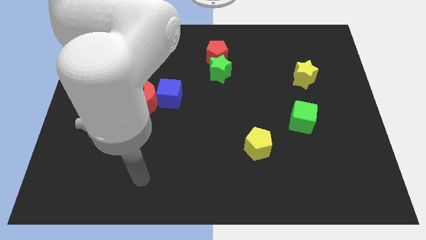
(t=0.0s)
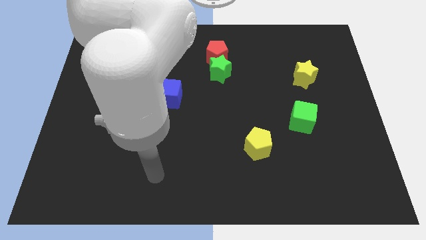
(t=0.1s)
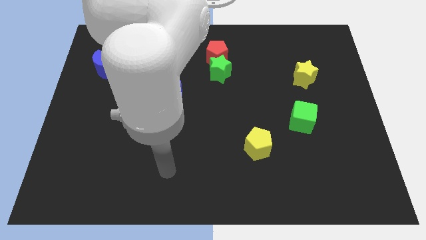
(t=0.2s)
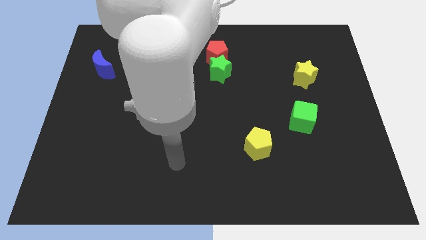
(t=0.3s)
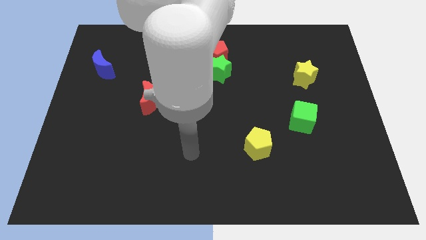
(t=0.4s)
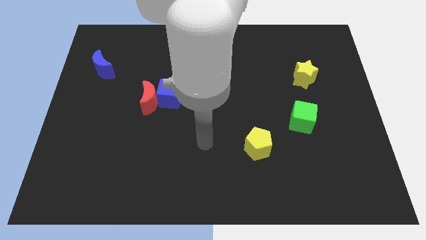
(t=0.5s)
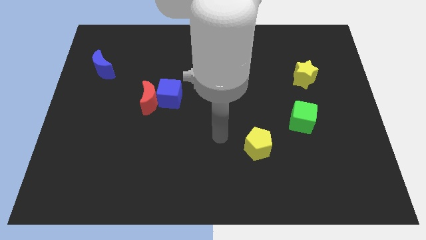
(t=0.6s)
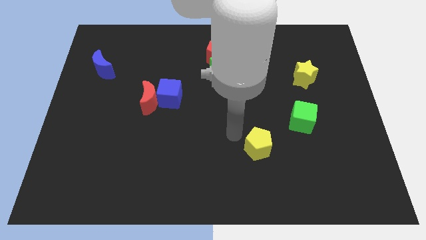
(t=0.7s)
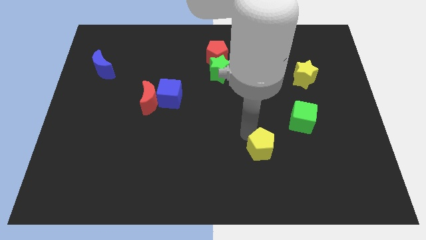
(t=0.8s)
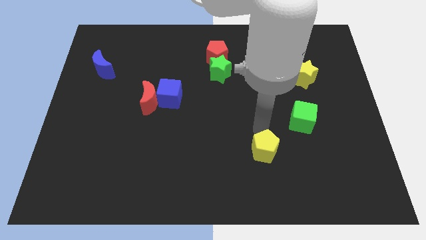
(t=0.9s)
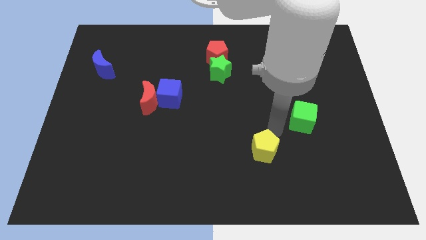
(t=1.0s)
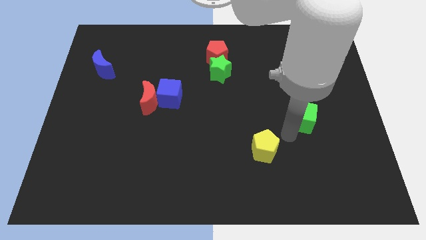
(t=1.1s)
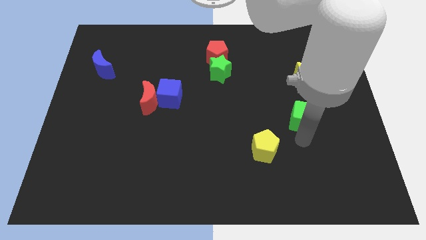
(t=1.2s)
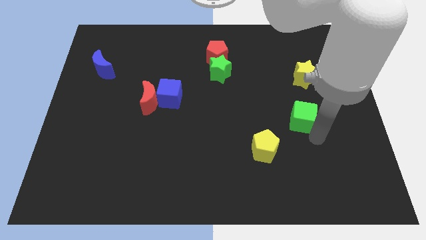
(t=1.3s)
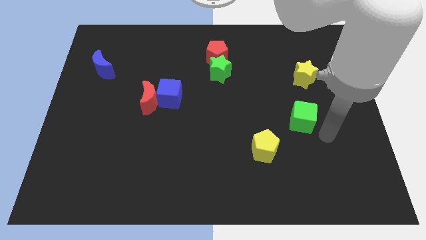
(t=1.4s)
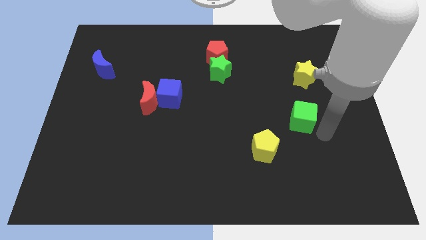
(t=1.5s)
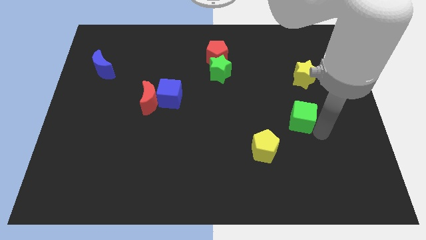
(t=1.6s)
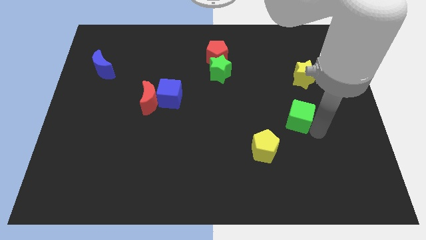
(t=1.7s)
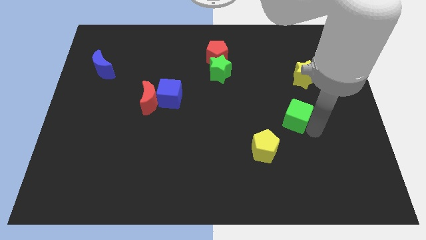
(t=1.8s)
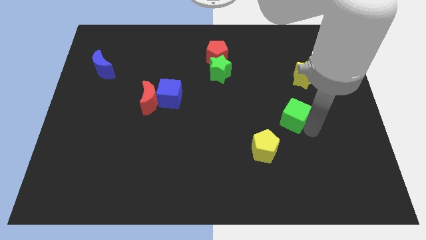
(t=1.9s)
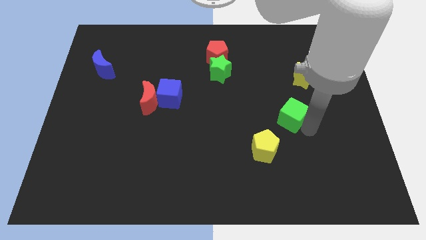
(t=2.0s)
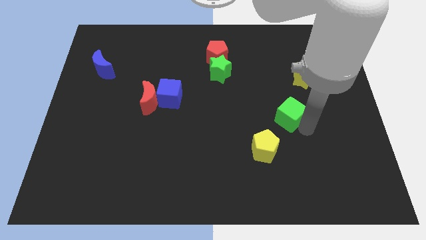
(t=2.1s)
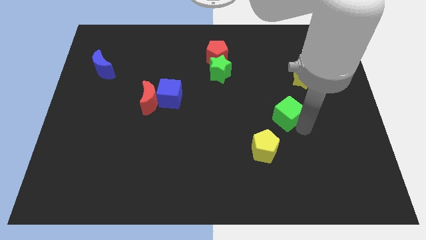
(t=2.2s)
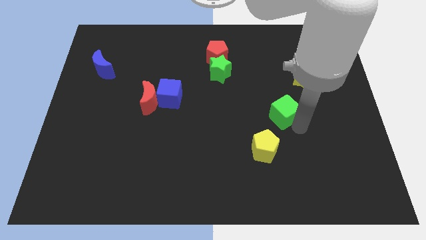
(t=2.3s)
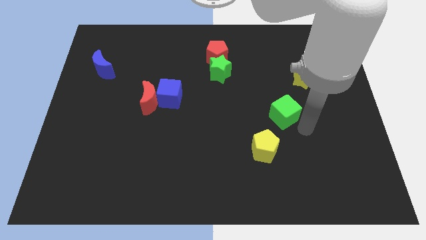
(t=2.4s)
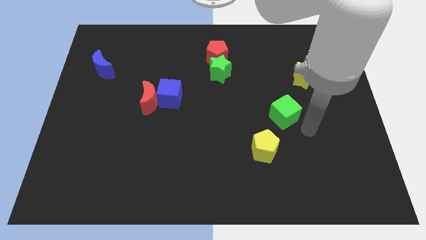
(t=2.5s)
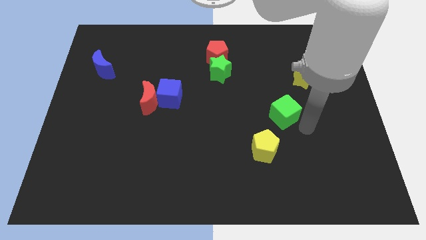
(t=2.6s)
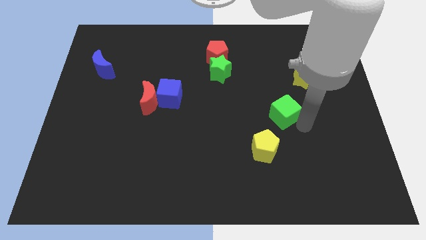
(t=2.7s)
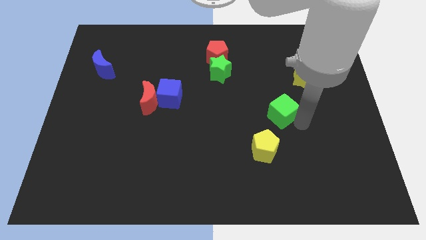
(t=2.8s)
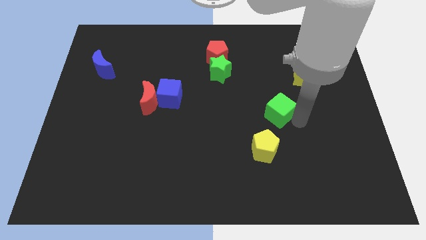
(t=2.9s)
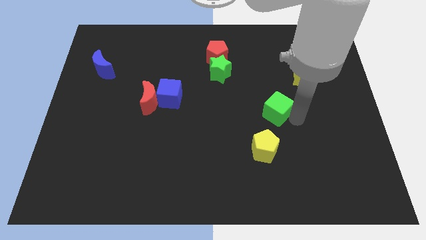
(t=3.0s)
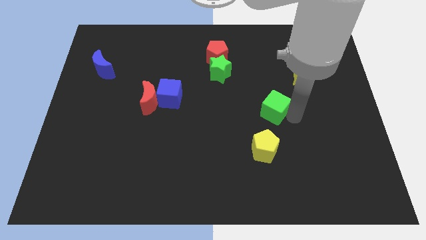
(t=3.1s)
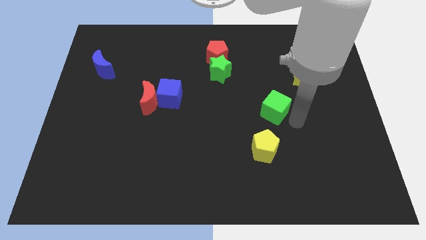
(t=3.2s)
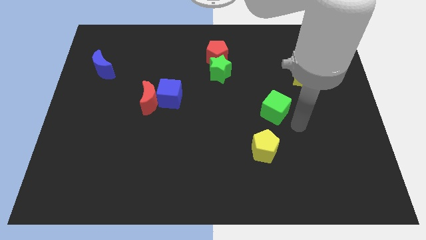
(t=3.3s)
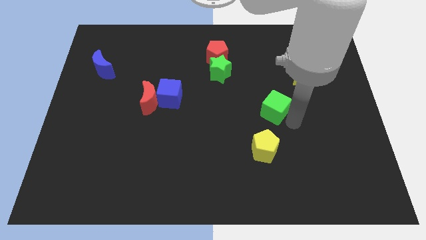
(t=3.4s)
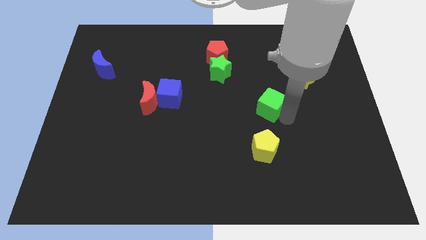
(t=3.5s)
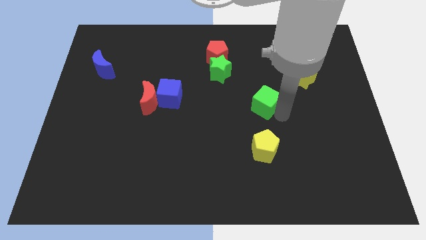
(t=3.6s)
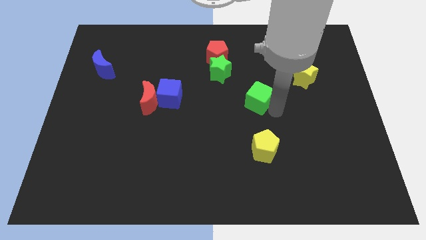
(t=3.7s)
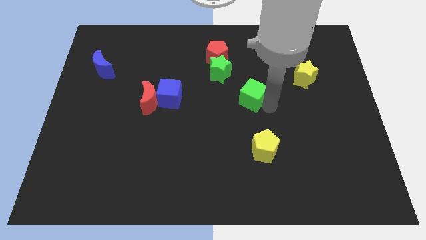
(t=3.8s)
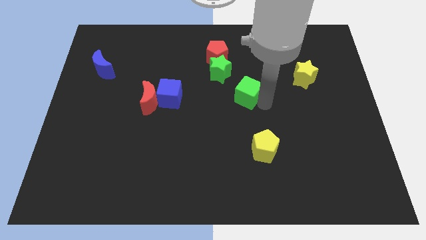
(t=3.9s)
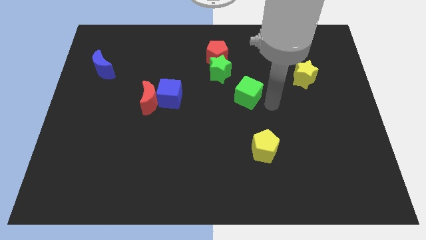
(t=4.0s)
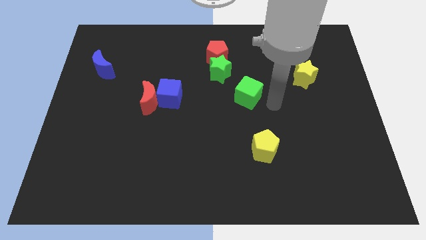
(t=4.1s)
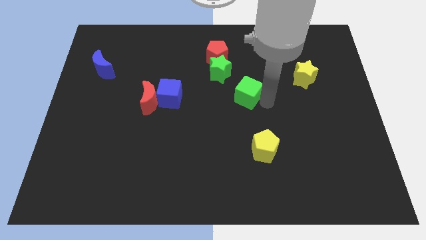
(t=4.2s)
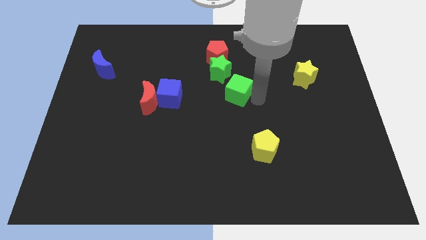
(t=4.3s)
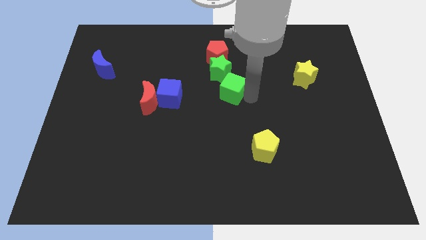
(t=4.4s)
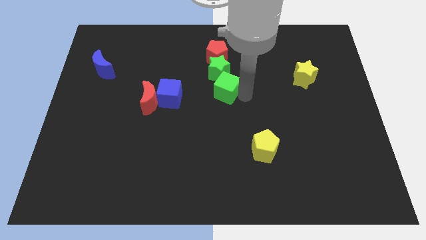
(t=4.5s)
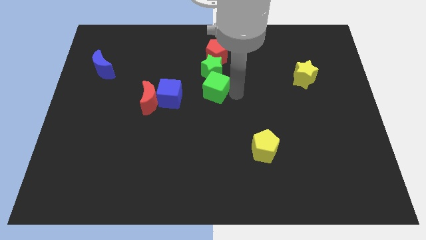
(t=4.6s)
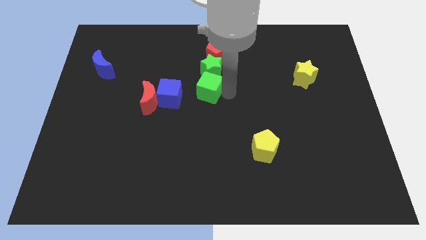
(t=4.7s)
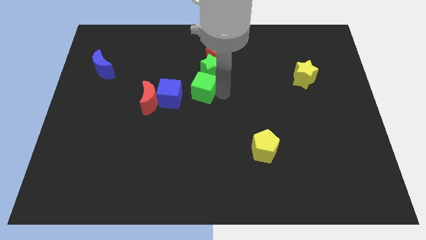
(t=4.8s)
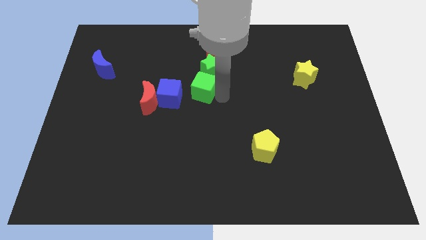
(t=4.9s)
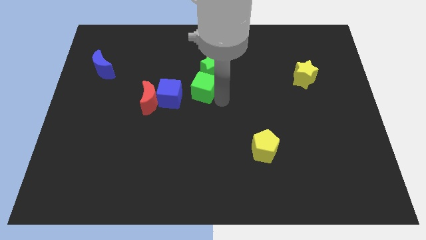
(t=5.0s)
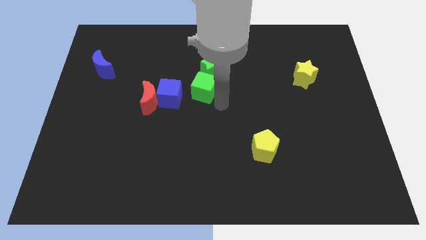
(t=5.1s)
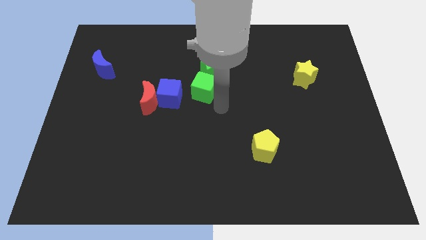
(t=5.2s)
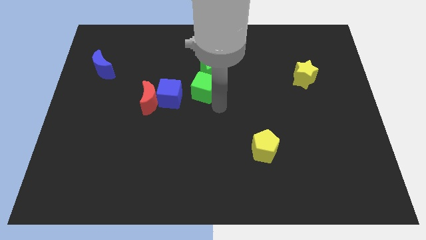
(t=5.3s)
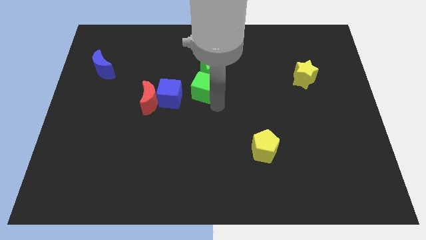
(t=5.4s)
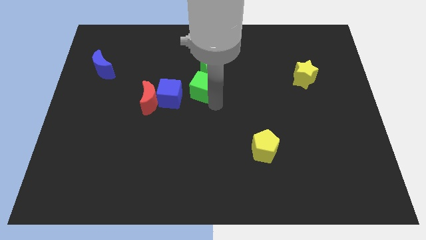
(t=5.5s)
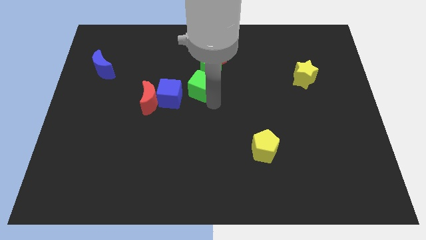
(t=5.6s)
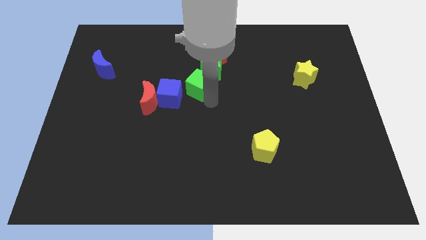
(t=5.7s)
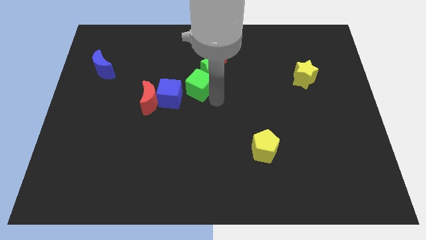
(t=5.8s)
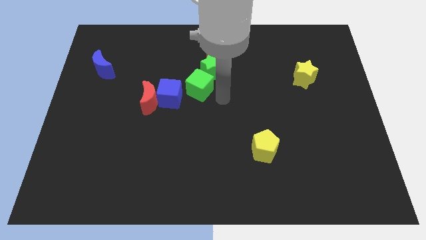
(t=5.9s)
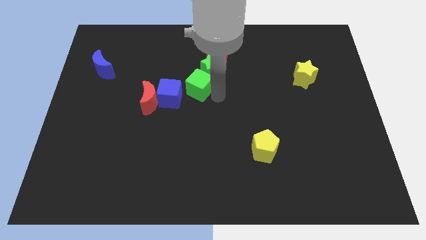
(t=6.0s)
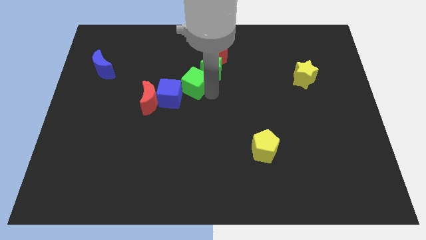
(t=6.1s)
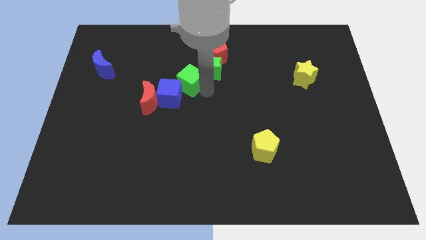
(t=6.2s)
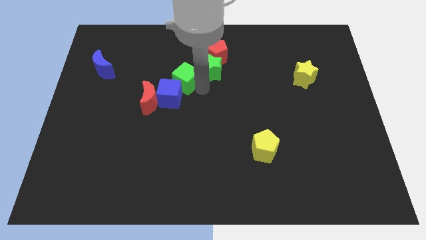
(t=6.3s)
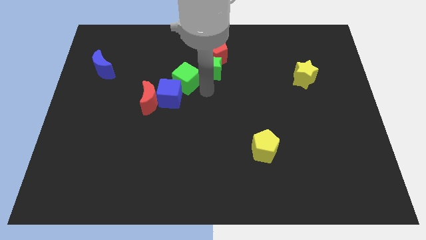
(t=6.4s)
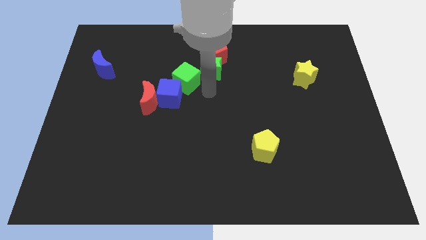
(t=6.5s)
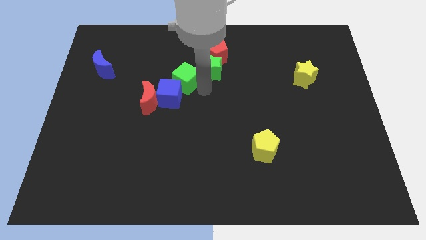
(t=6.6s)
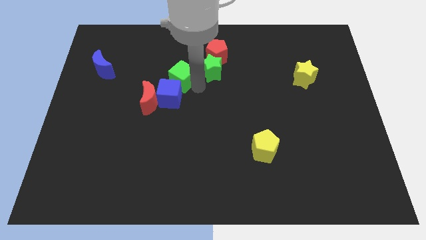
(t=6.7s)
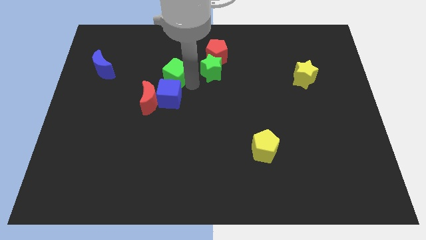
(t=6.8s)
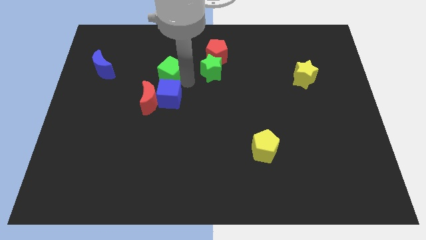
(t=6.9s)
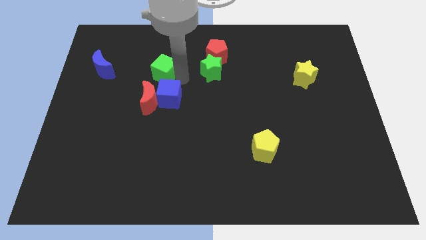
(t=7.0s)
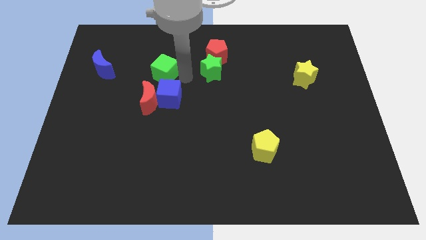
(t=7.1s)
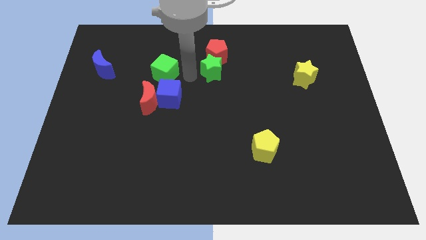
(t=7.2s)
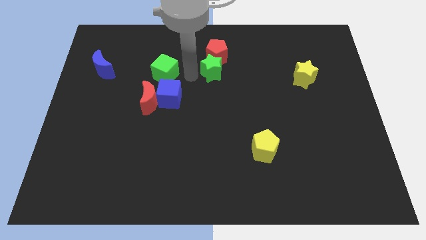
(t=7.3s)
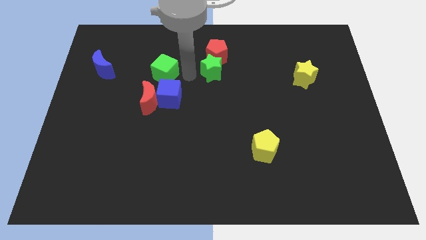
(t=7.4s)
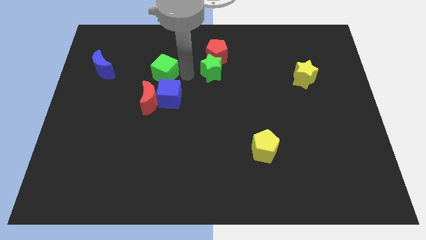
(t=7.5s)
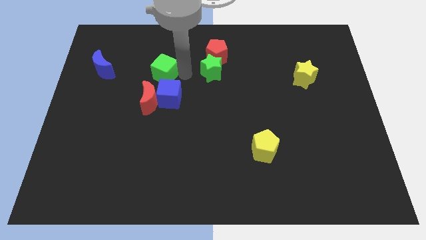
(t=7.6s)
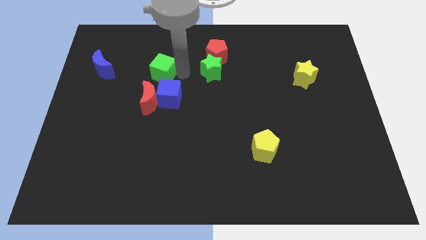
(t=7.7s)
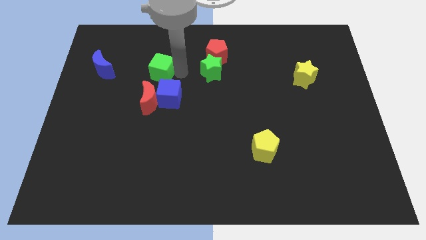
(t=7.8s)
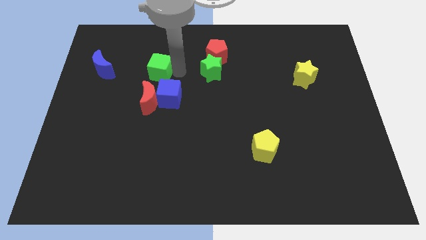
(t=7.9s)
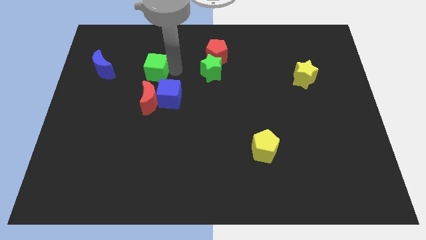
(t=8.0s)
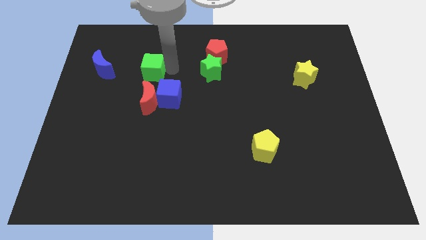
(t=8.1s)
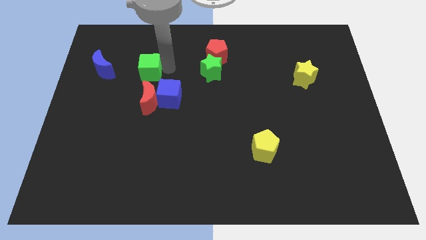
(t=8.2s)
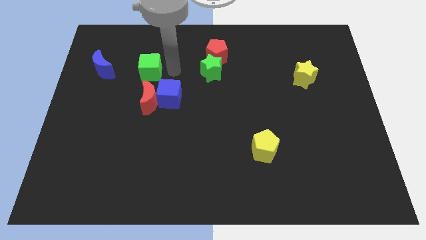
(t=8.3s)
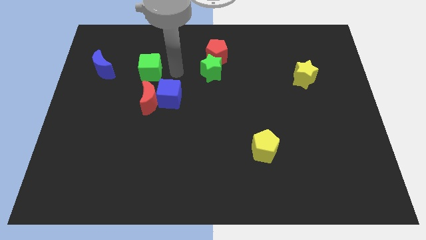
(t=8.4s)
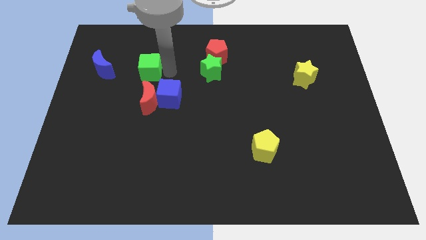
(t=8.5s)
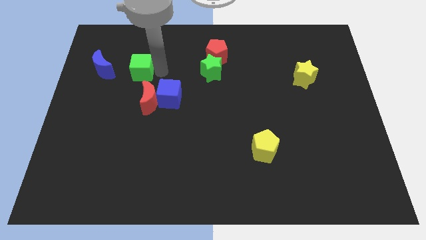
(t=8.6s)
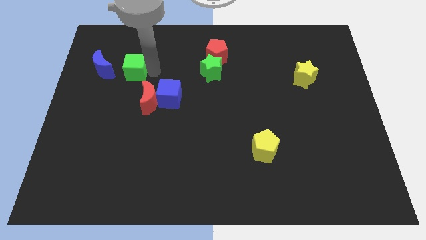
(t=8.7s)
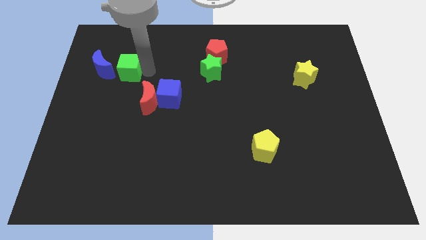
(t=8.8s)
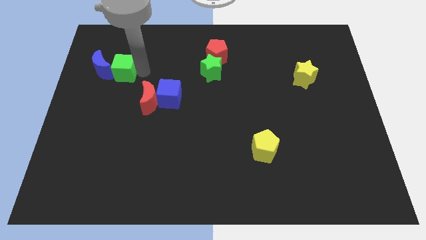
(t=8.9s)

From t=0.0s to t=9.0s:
push the green cube to the blue moon
